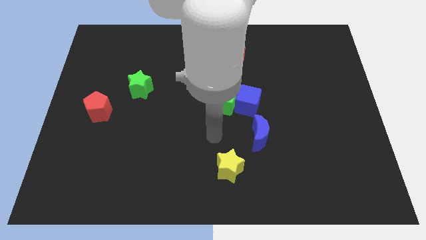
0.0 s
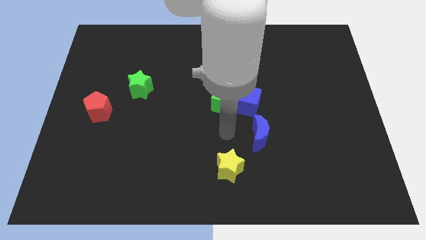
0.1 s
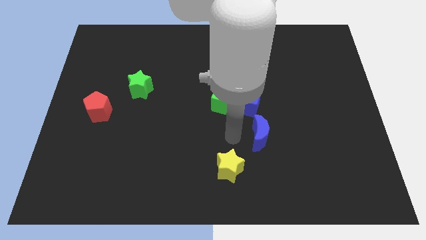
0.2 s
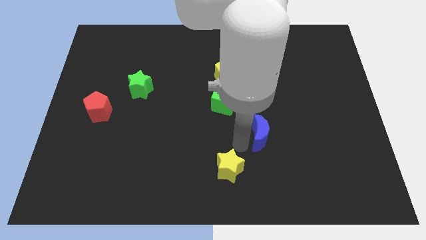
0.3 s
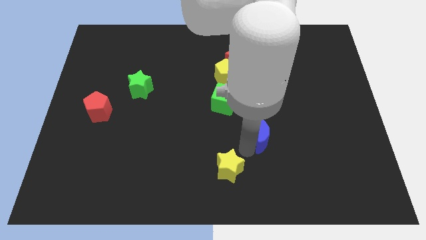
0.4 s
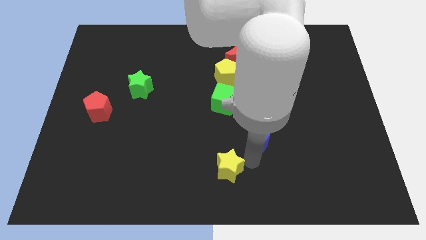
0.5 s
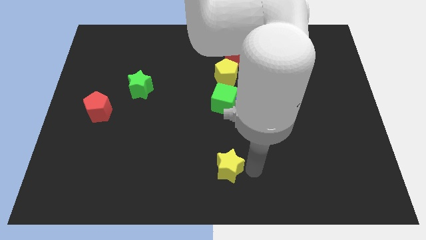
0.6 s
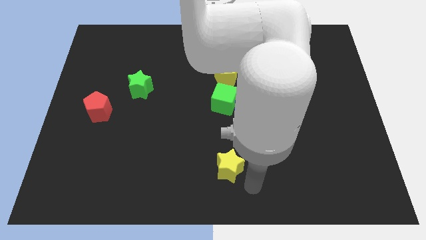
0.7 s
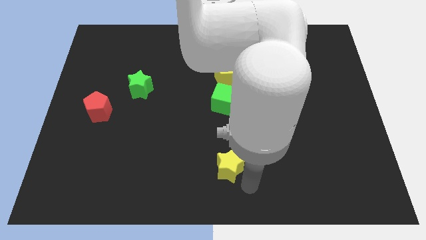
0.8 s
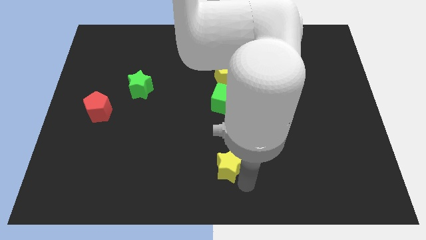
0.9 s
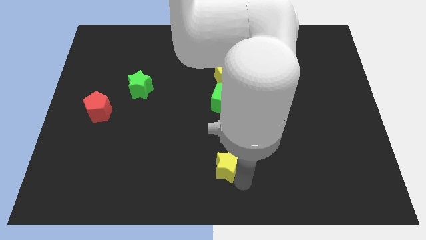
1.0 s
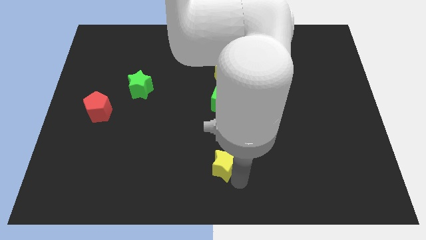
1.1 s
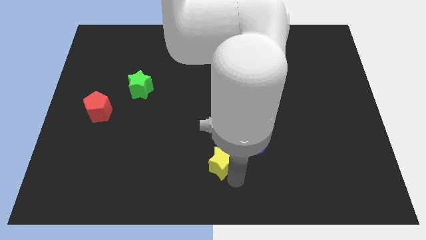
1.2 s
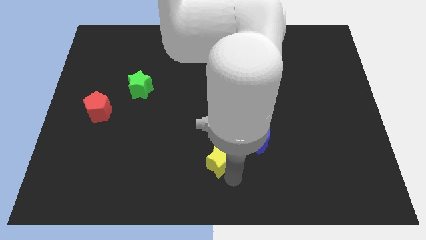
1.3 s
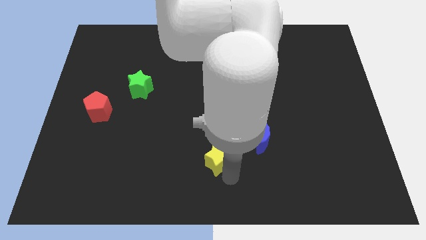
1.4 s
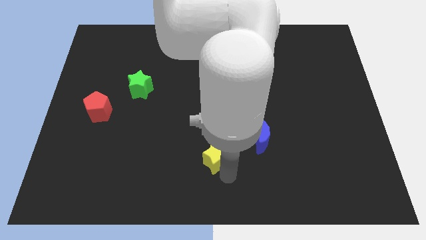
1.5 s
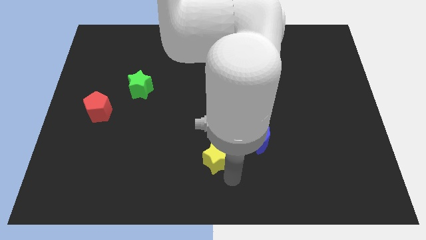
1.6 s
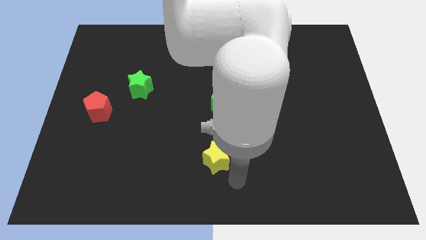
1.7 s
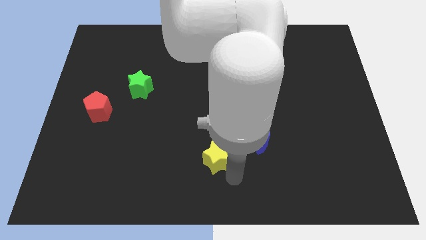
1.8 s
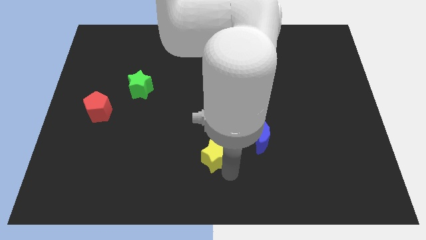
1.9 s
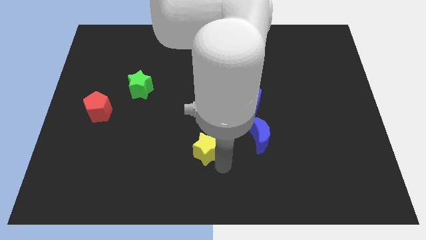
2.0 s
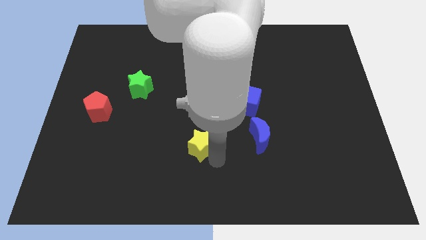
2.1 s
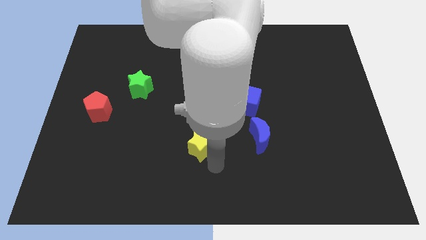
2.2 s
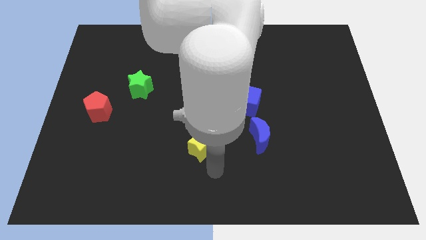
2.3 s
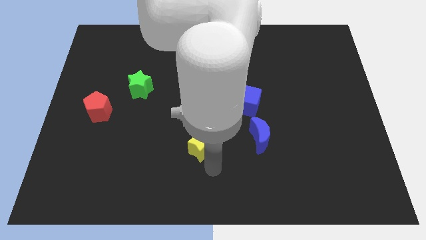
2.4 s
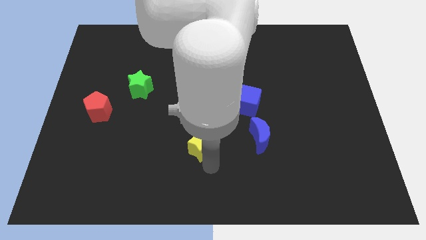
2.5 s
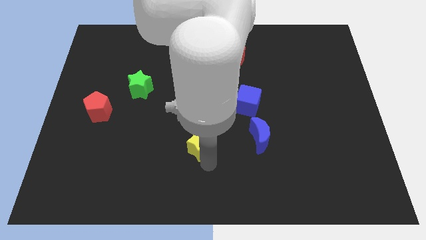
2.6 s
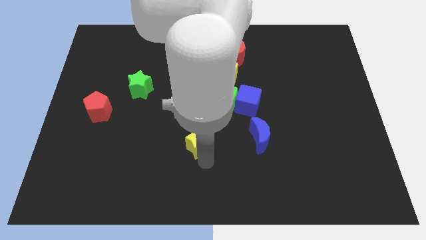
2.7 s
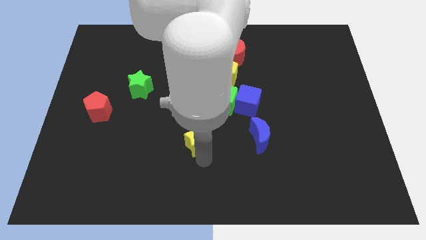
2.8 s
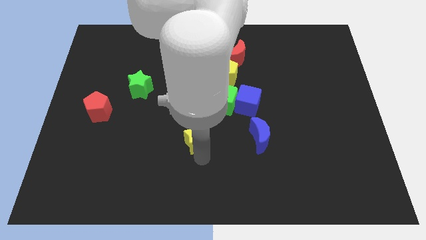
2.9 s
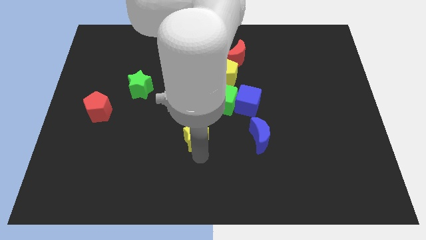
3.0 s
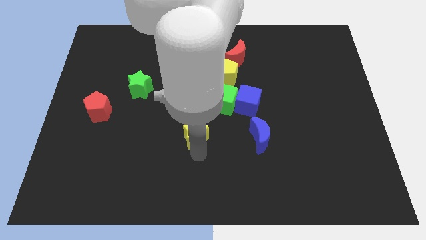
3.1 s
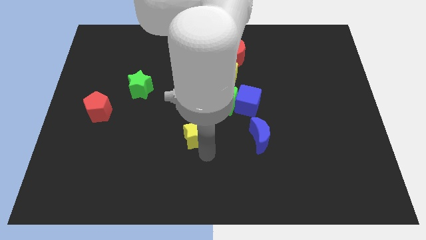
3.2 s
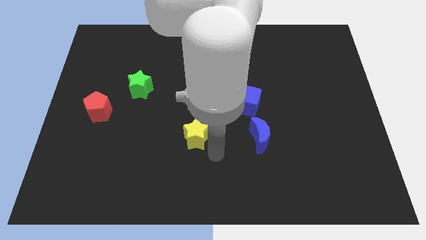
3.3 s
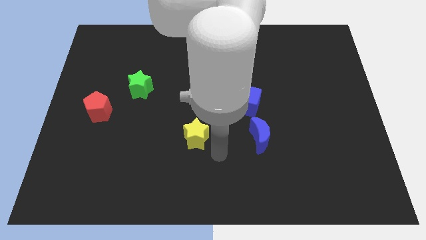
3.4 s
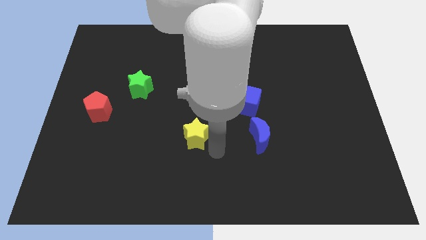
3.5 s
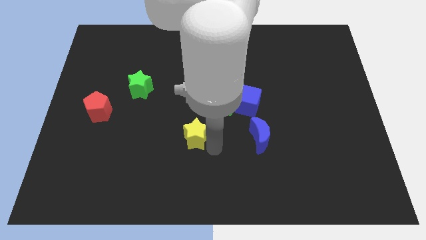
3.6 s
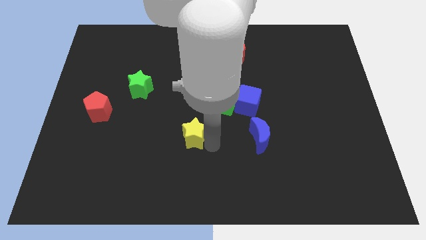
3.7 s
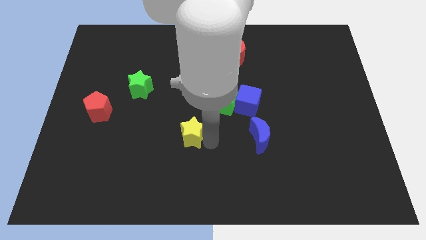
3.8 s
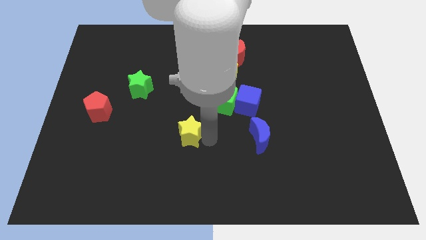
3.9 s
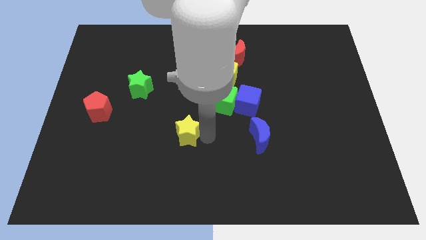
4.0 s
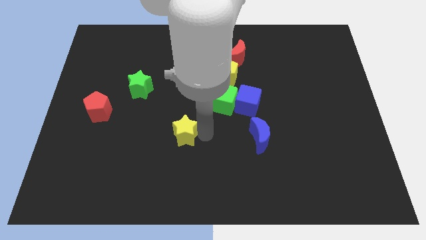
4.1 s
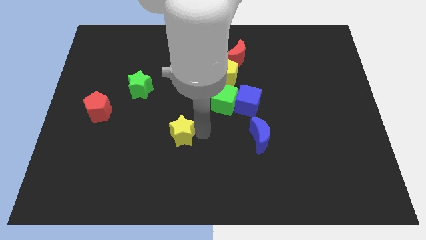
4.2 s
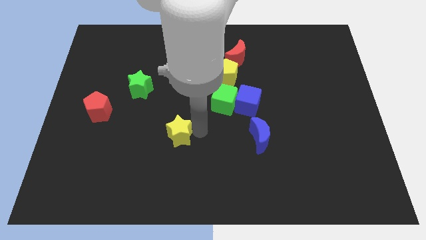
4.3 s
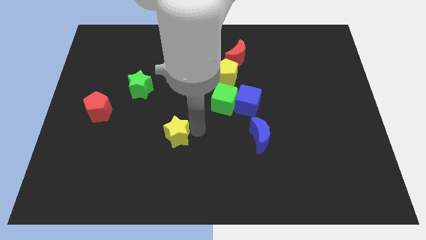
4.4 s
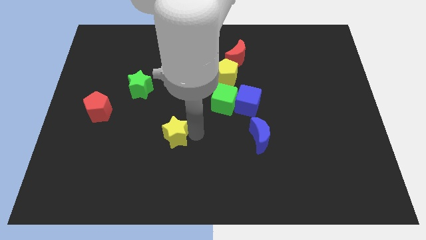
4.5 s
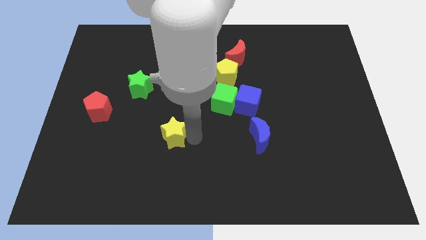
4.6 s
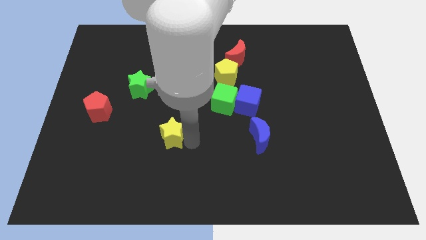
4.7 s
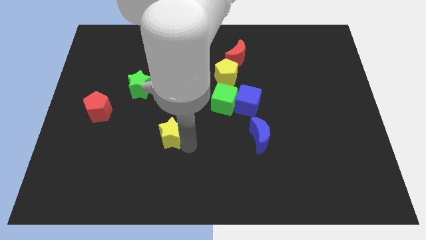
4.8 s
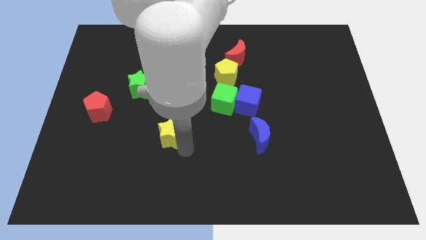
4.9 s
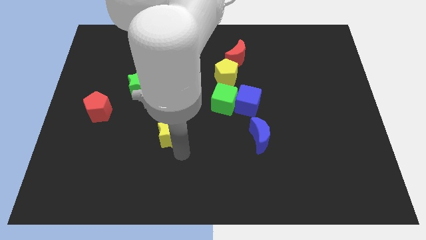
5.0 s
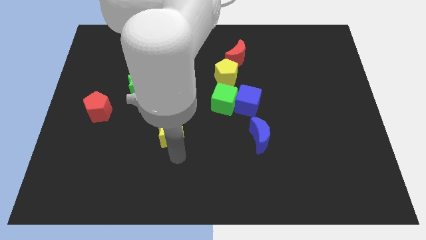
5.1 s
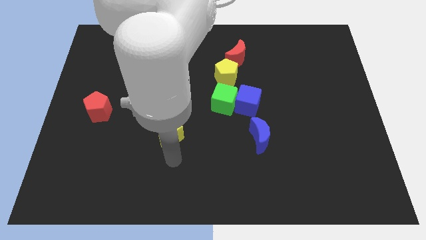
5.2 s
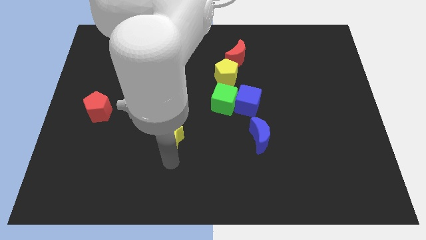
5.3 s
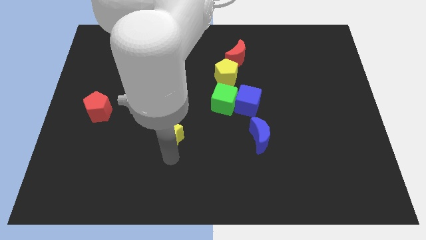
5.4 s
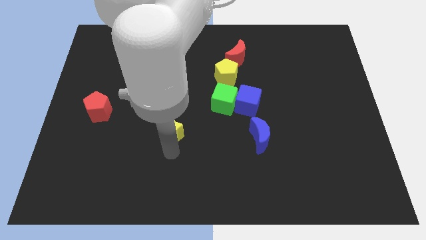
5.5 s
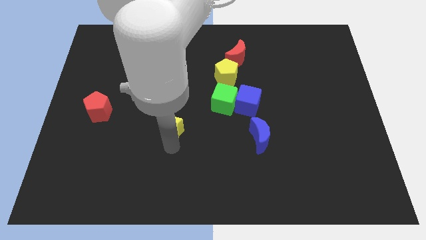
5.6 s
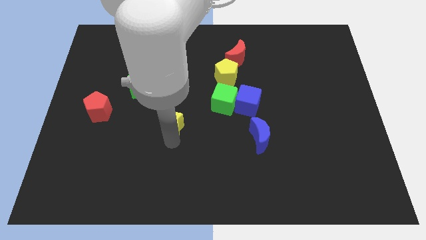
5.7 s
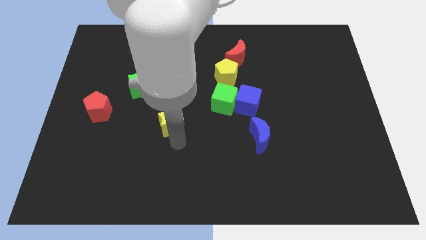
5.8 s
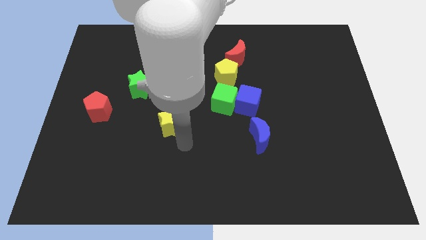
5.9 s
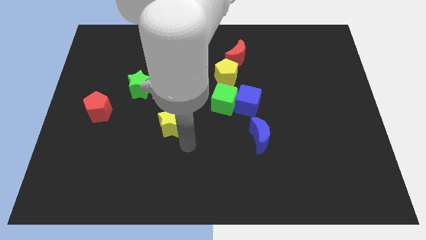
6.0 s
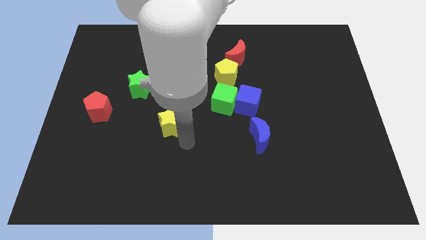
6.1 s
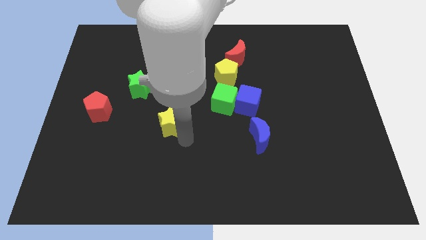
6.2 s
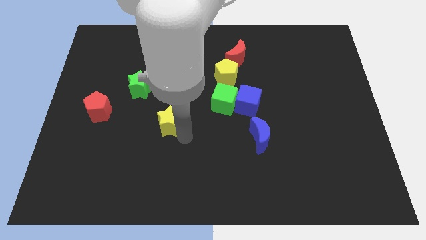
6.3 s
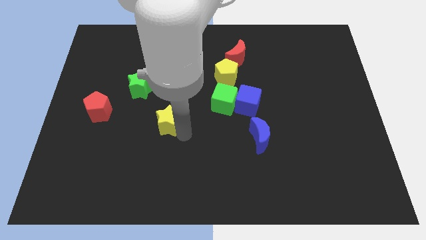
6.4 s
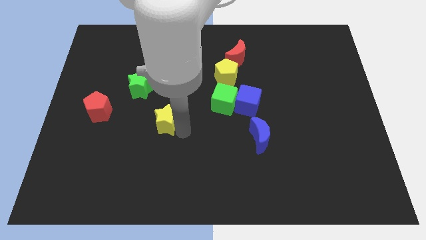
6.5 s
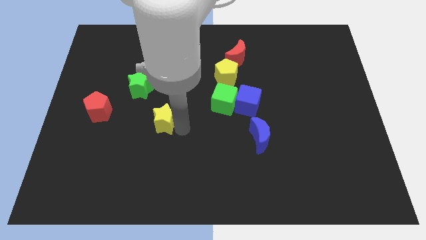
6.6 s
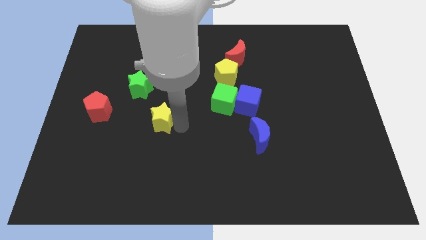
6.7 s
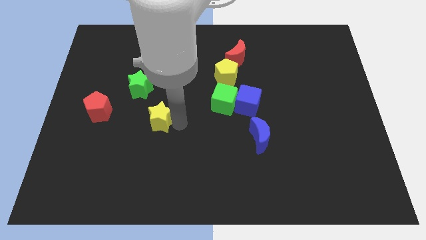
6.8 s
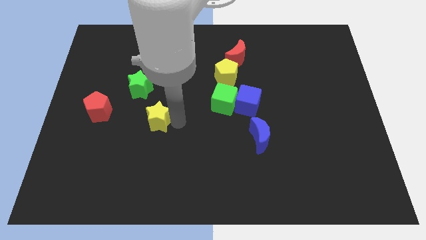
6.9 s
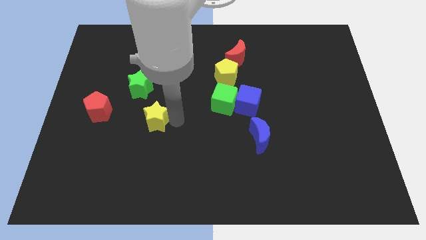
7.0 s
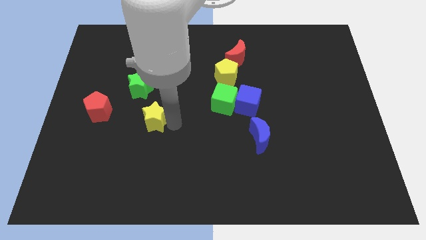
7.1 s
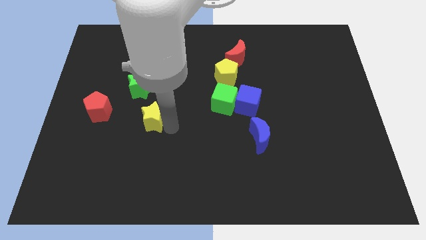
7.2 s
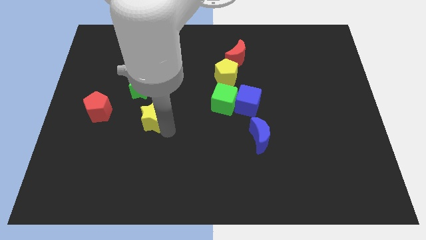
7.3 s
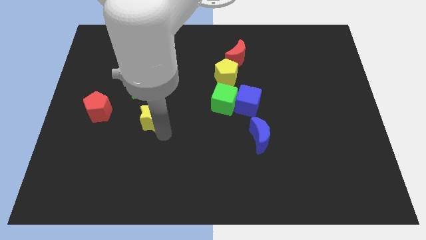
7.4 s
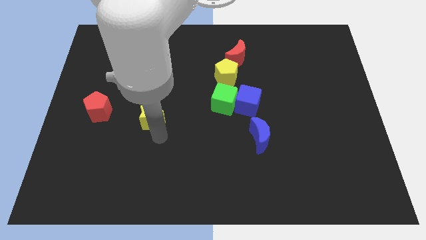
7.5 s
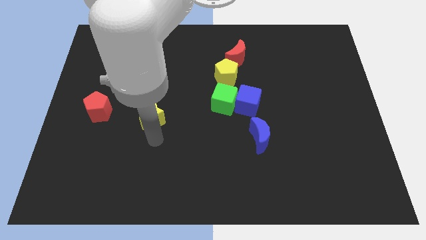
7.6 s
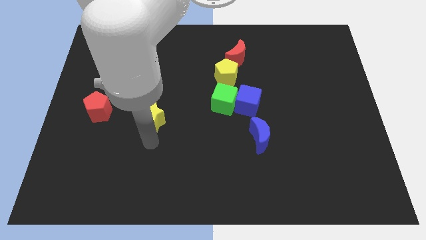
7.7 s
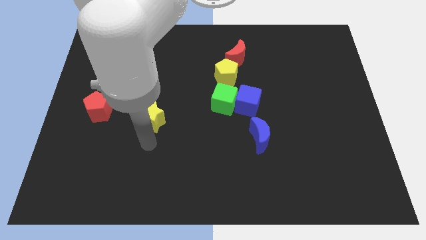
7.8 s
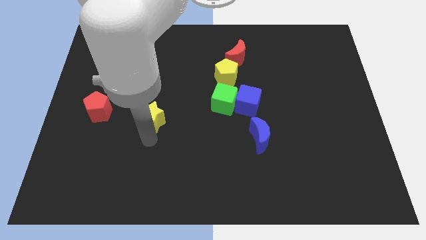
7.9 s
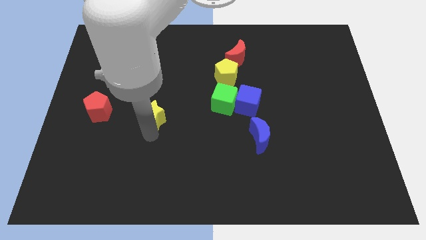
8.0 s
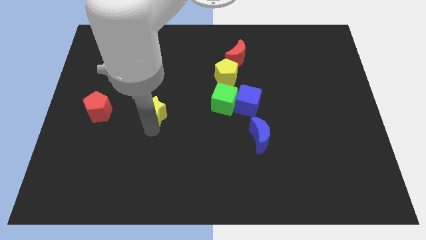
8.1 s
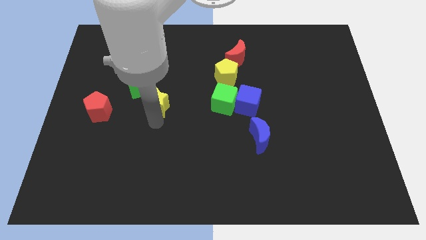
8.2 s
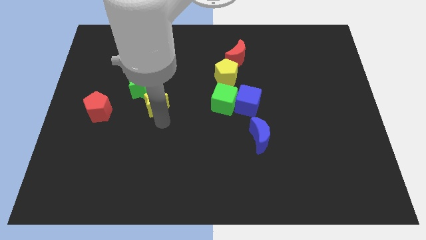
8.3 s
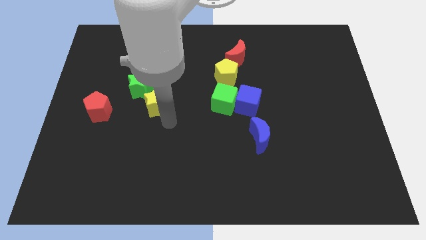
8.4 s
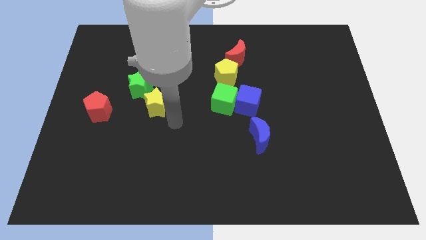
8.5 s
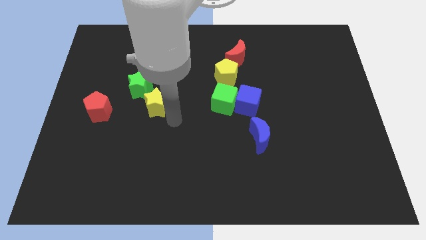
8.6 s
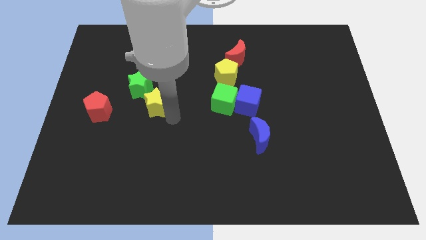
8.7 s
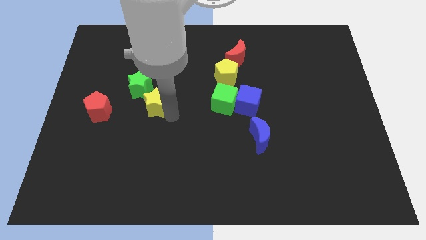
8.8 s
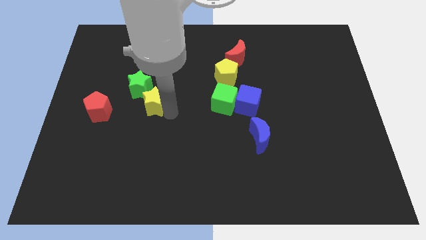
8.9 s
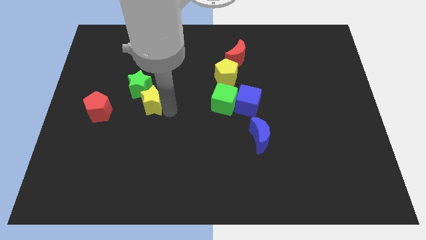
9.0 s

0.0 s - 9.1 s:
push the yellow star next to the green star
